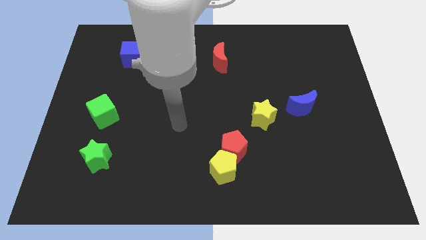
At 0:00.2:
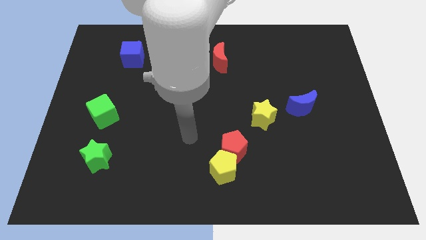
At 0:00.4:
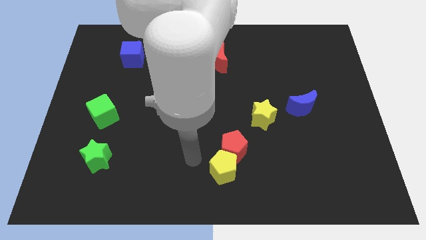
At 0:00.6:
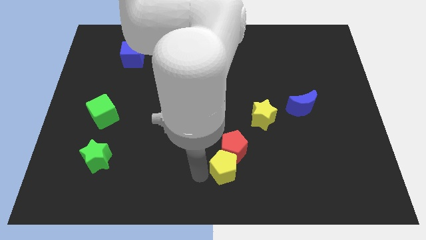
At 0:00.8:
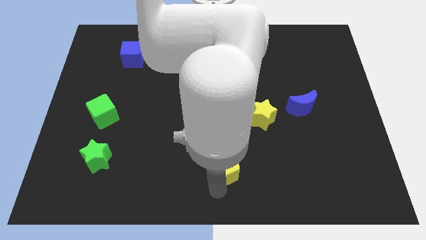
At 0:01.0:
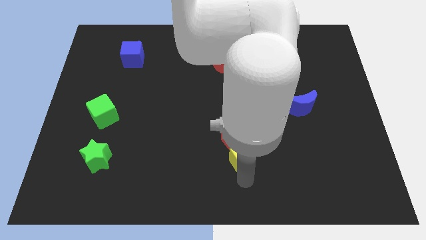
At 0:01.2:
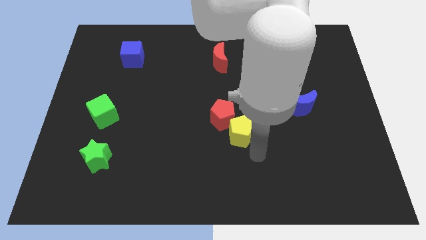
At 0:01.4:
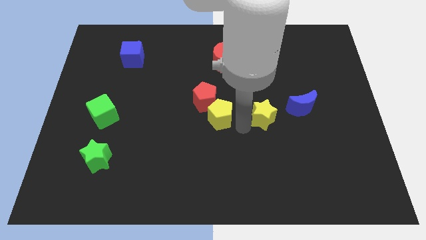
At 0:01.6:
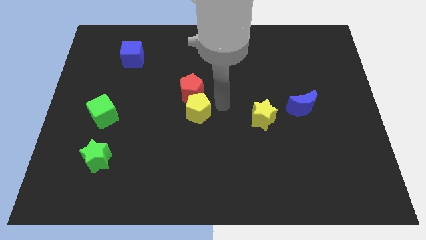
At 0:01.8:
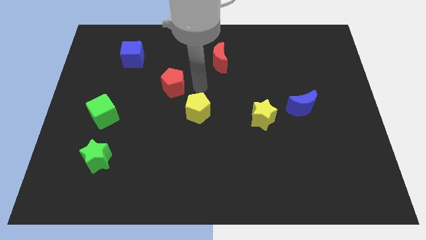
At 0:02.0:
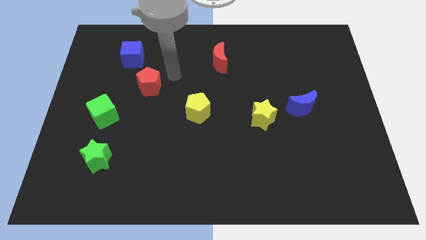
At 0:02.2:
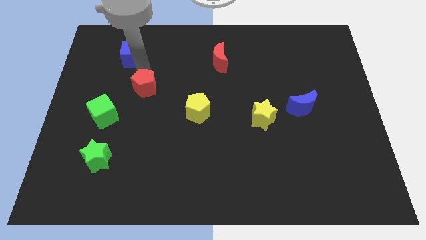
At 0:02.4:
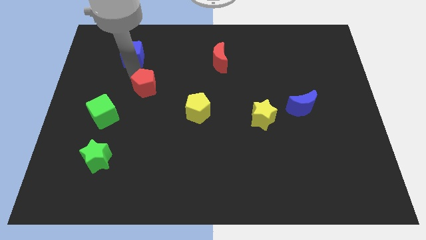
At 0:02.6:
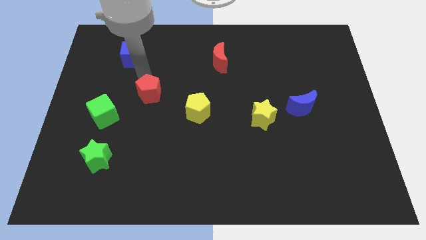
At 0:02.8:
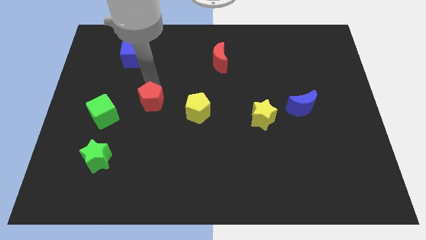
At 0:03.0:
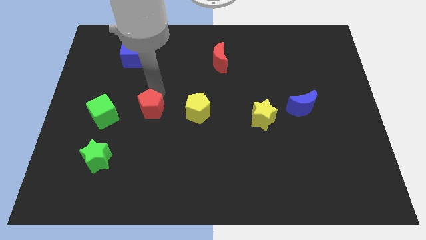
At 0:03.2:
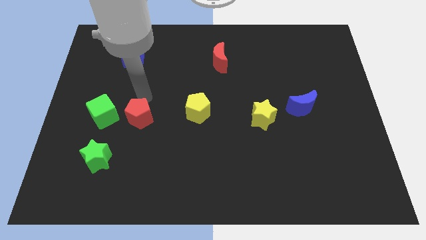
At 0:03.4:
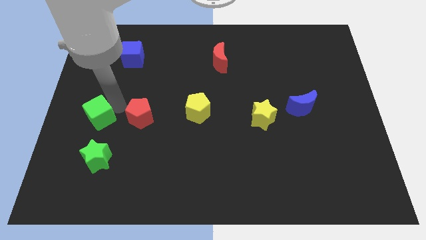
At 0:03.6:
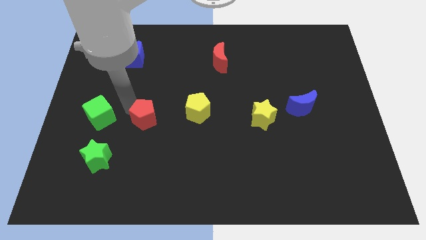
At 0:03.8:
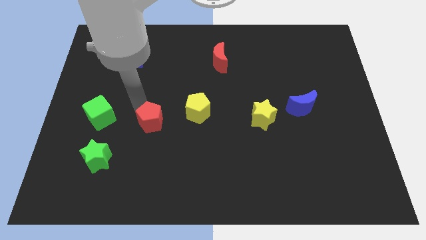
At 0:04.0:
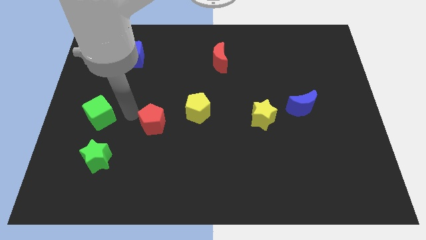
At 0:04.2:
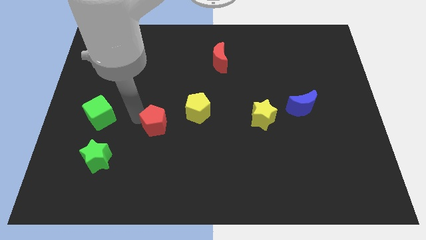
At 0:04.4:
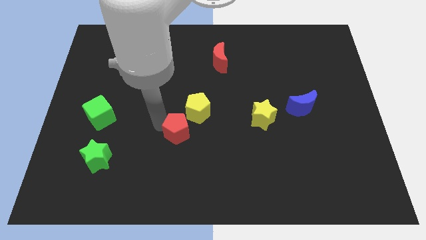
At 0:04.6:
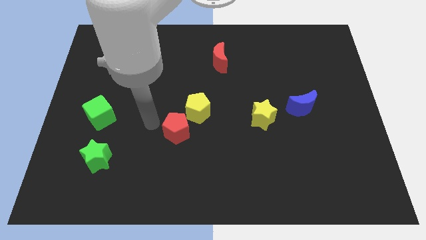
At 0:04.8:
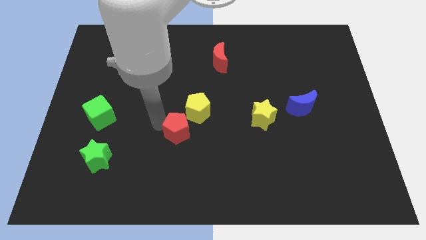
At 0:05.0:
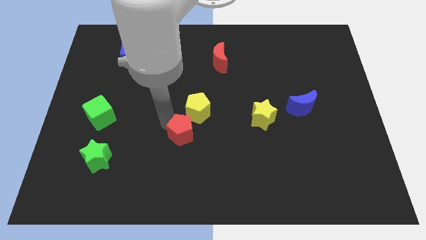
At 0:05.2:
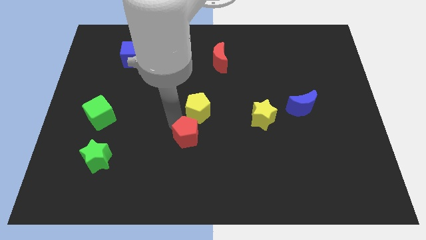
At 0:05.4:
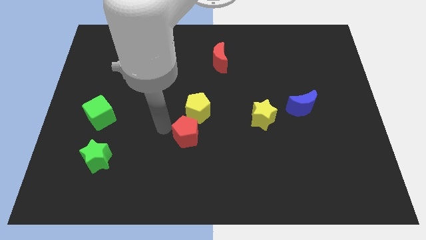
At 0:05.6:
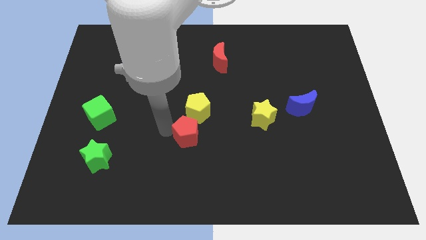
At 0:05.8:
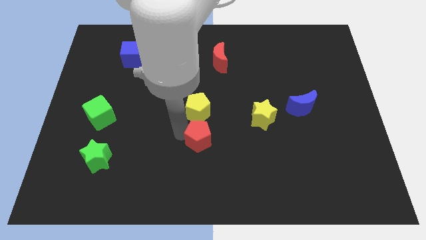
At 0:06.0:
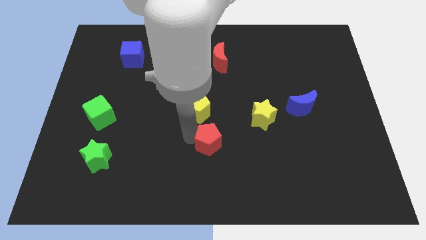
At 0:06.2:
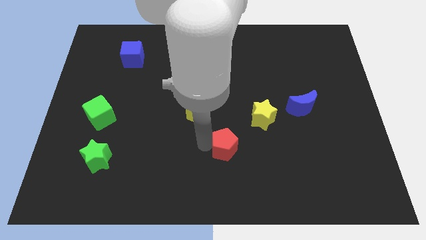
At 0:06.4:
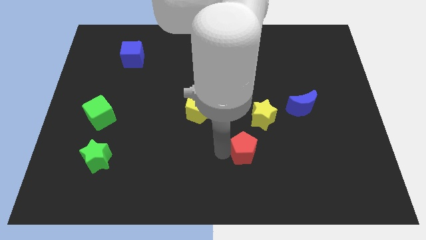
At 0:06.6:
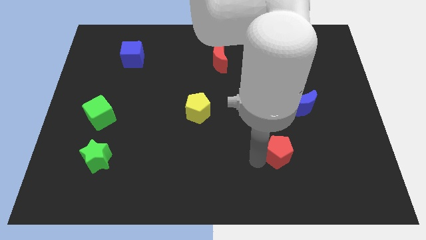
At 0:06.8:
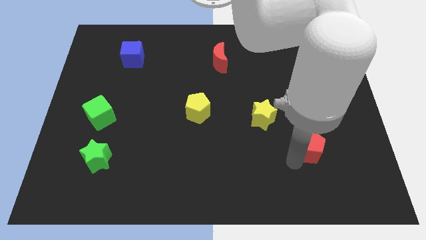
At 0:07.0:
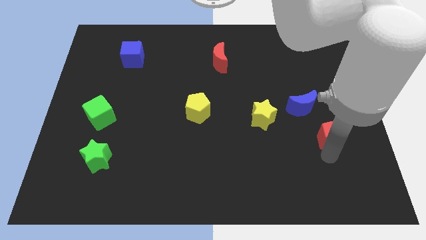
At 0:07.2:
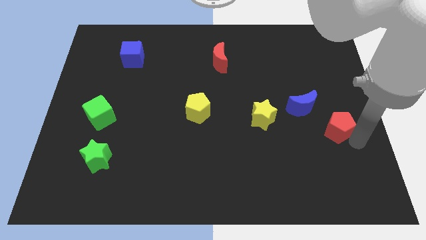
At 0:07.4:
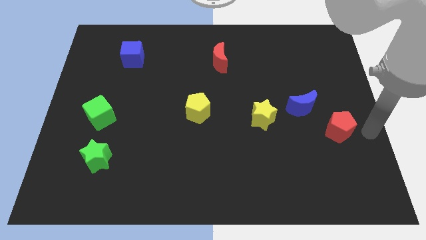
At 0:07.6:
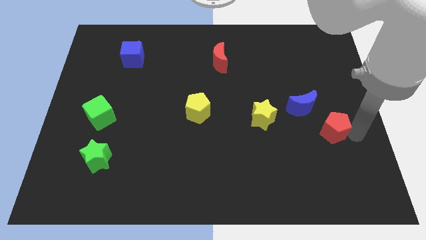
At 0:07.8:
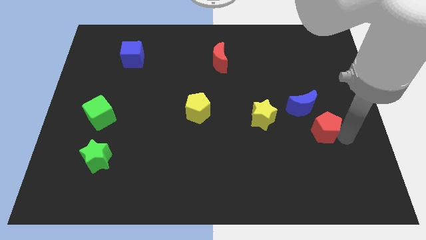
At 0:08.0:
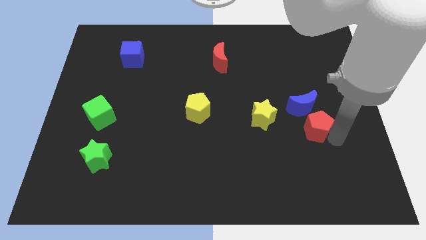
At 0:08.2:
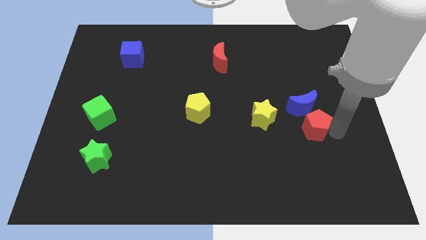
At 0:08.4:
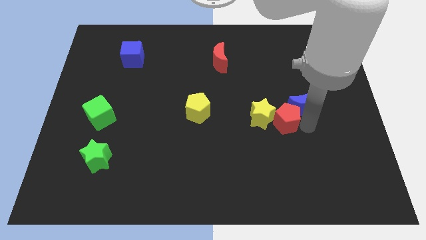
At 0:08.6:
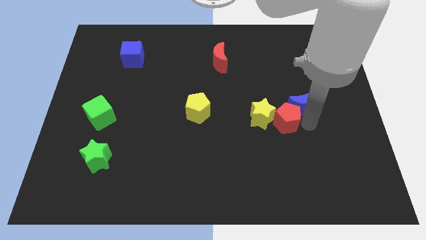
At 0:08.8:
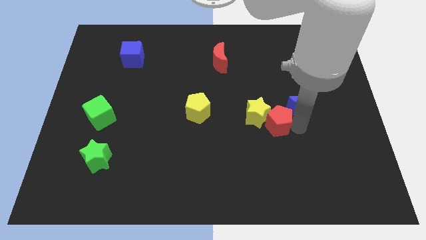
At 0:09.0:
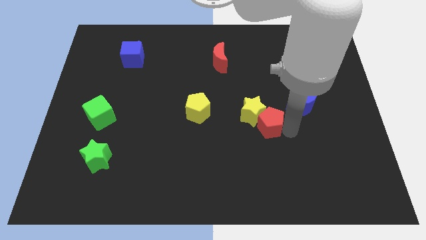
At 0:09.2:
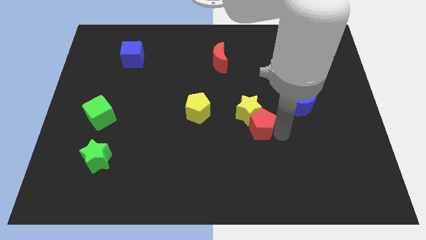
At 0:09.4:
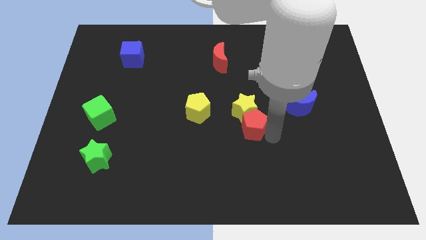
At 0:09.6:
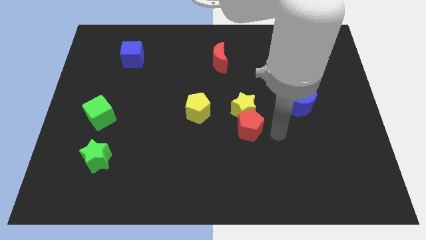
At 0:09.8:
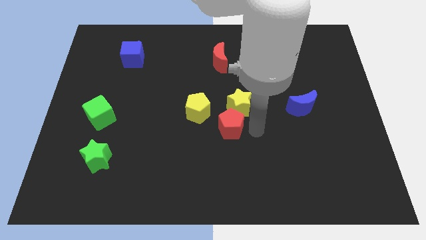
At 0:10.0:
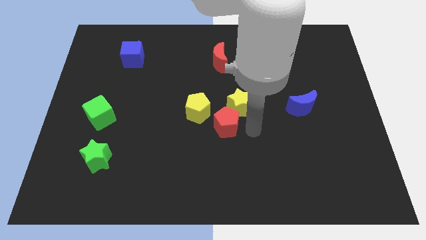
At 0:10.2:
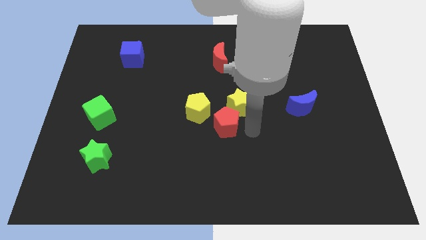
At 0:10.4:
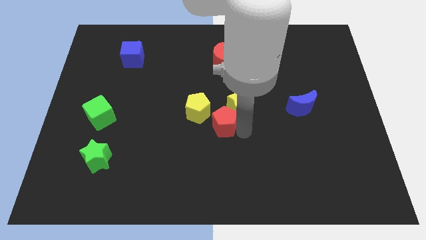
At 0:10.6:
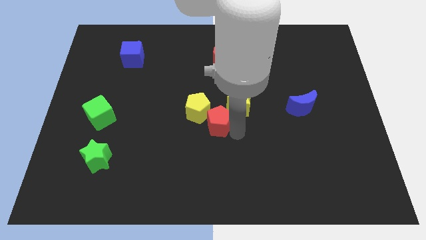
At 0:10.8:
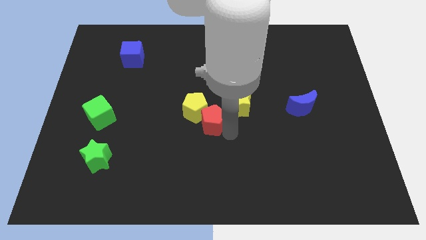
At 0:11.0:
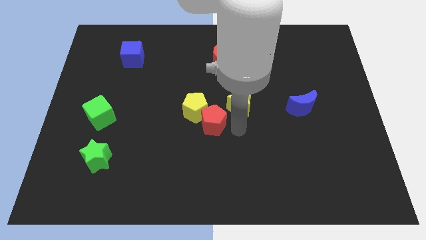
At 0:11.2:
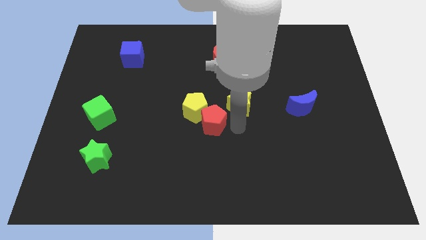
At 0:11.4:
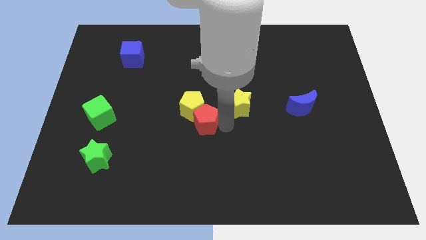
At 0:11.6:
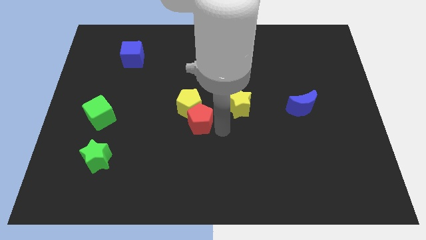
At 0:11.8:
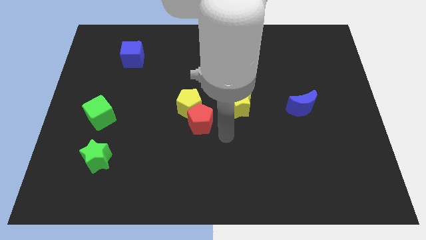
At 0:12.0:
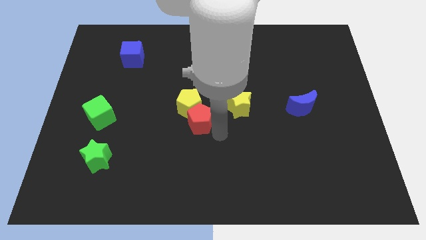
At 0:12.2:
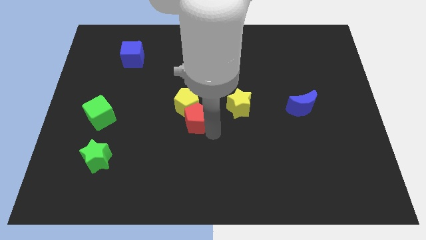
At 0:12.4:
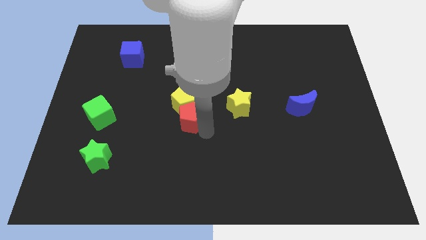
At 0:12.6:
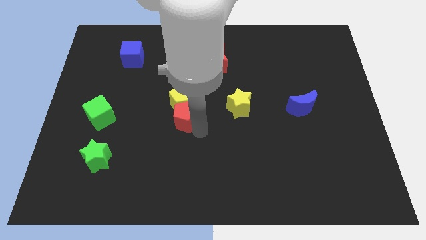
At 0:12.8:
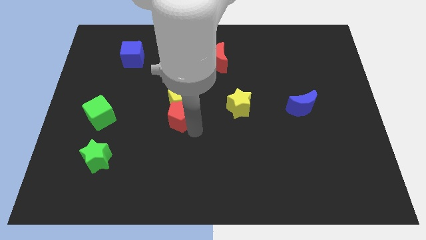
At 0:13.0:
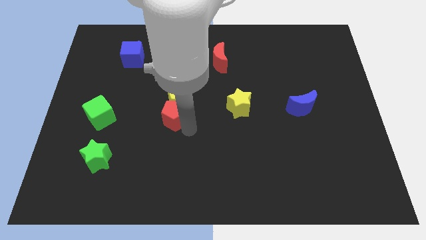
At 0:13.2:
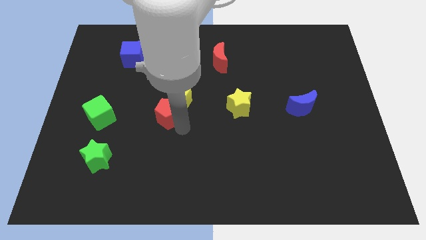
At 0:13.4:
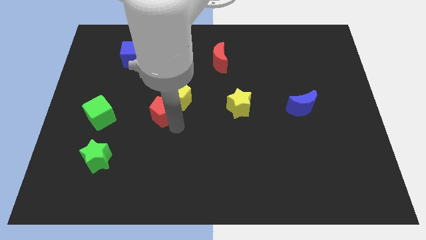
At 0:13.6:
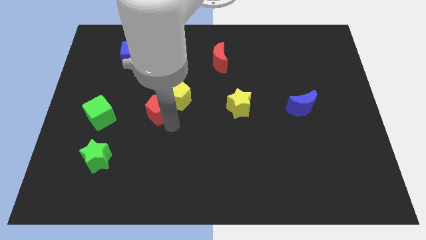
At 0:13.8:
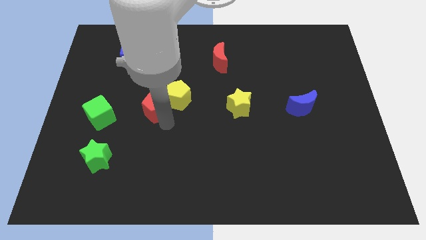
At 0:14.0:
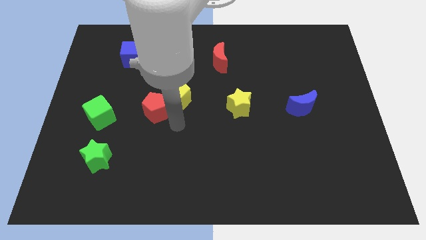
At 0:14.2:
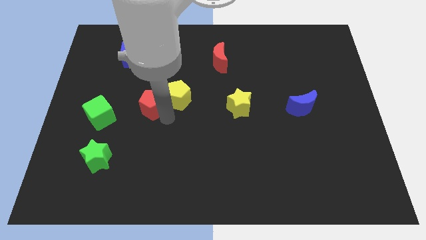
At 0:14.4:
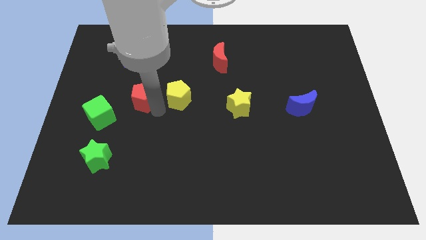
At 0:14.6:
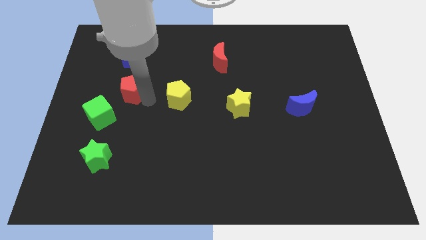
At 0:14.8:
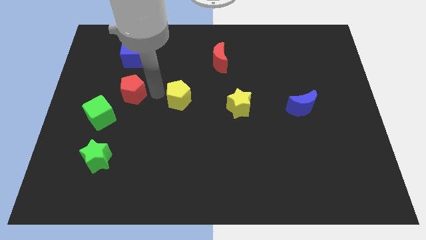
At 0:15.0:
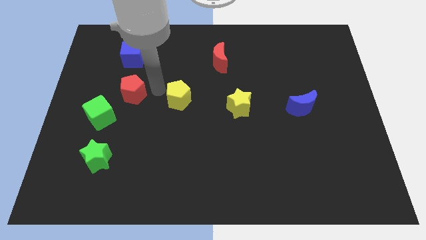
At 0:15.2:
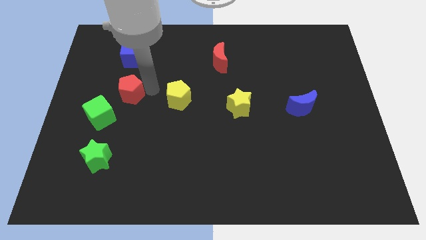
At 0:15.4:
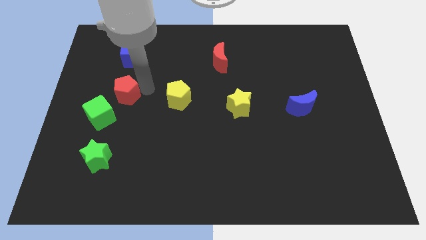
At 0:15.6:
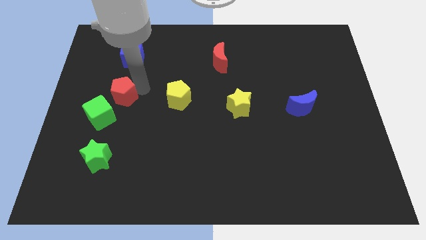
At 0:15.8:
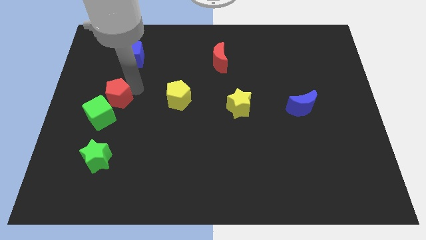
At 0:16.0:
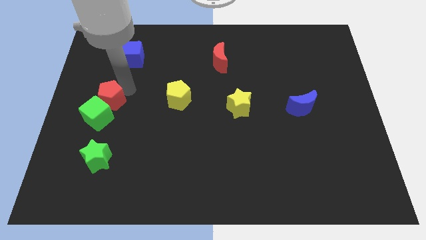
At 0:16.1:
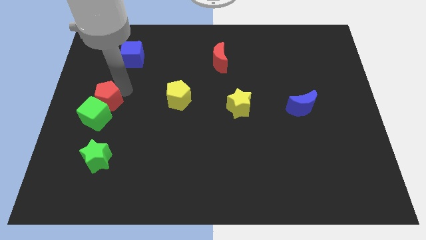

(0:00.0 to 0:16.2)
slide the red pentagon to the center left
